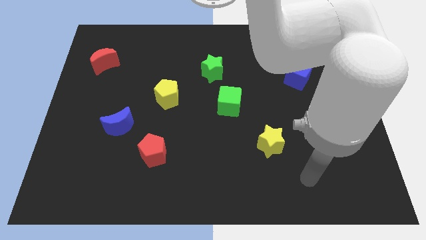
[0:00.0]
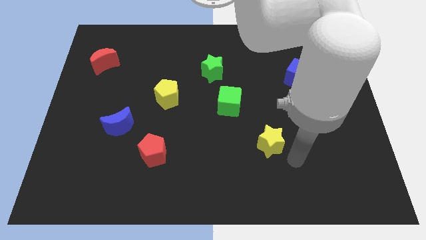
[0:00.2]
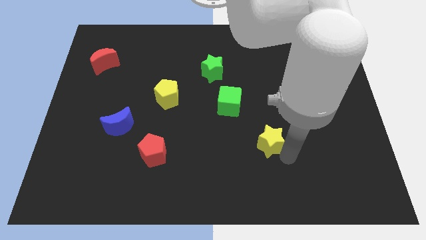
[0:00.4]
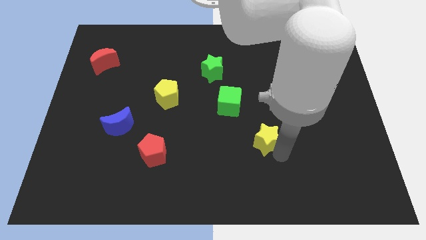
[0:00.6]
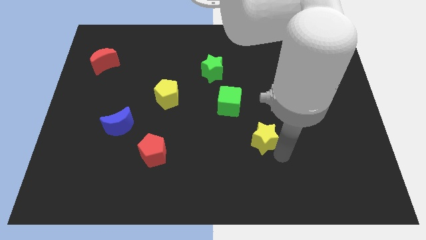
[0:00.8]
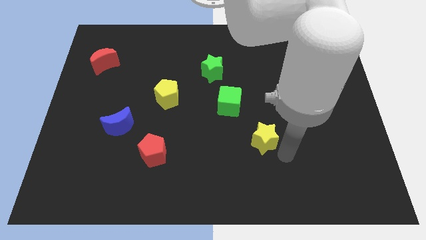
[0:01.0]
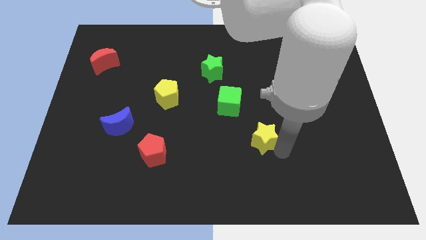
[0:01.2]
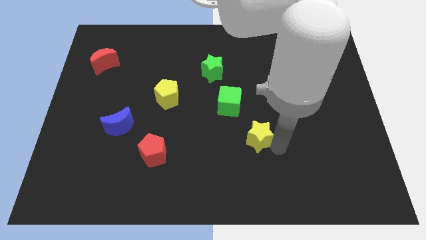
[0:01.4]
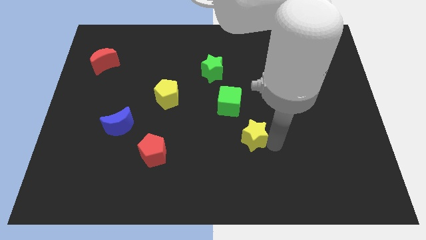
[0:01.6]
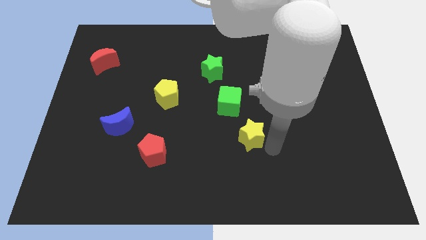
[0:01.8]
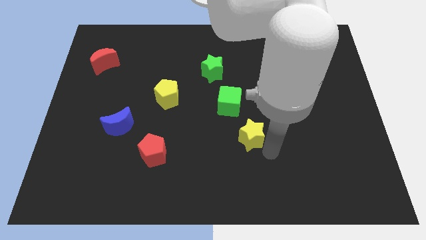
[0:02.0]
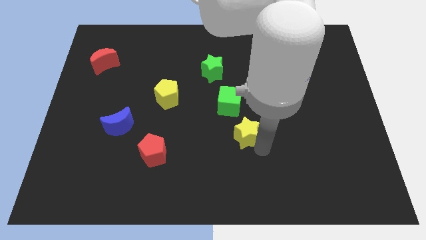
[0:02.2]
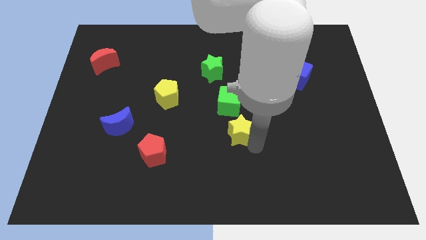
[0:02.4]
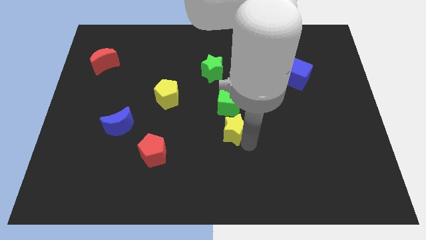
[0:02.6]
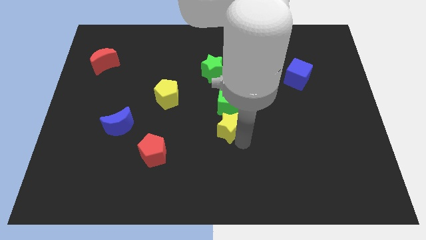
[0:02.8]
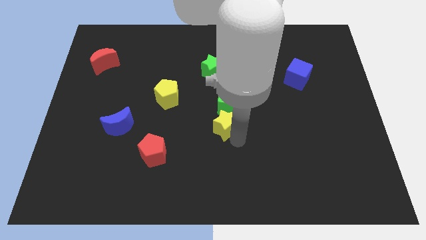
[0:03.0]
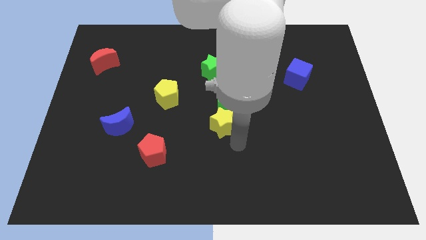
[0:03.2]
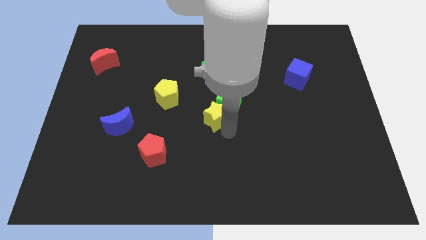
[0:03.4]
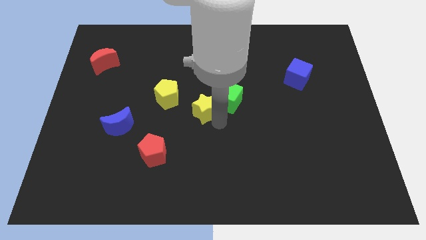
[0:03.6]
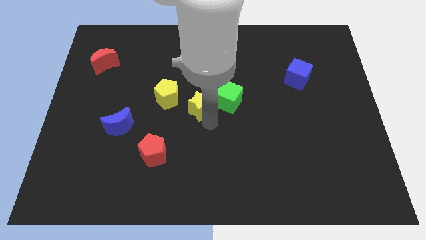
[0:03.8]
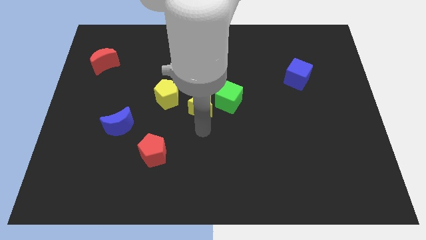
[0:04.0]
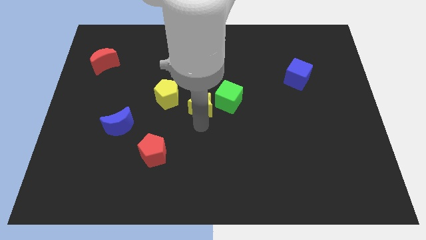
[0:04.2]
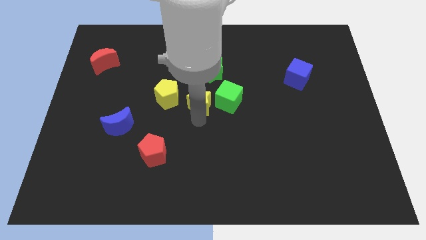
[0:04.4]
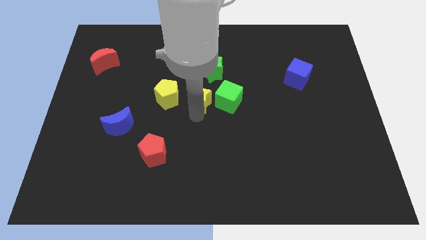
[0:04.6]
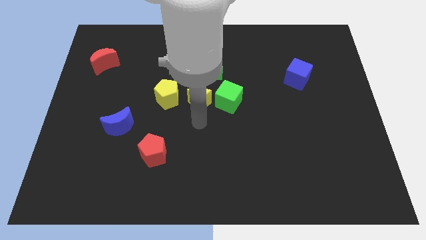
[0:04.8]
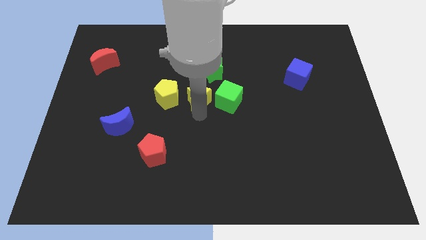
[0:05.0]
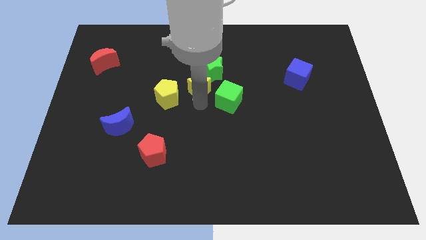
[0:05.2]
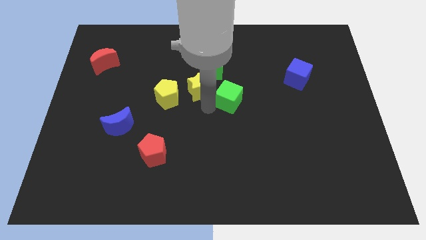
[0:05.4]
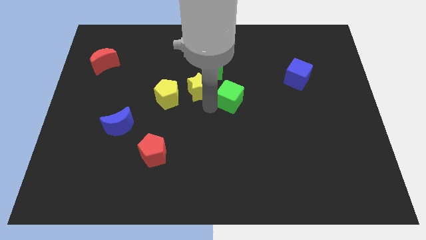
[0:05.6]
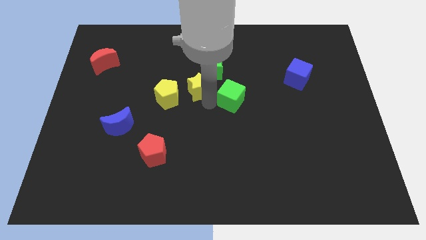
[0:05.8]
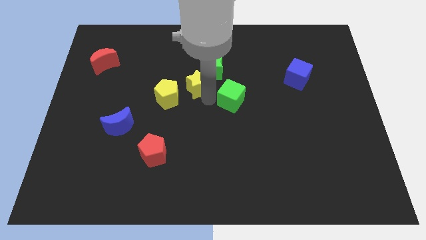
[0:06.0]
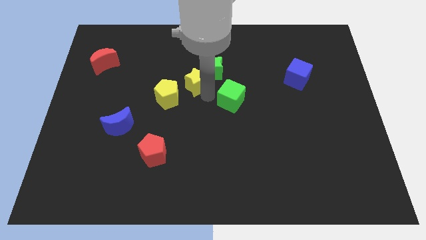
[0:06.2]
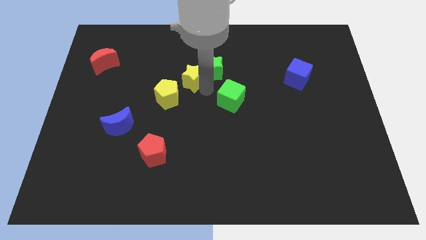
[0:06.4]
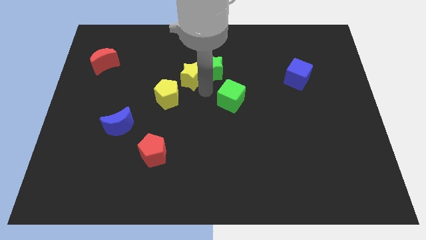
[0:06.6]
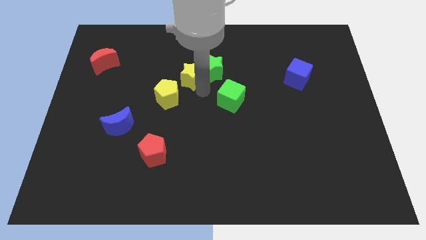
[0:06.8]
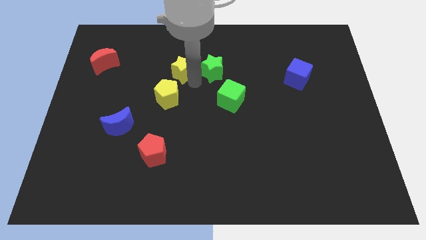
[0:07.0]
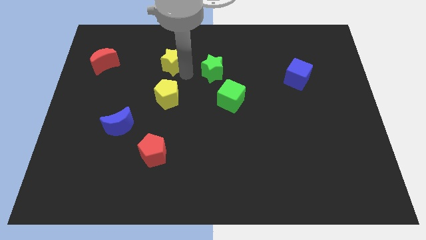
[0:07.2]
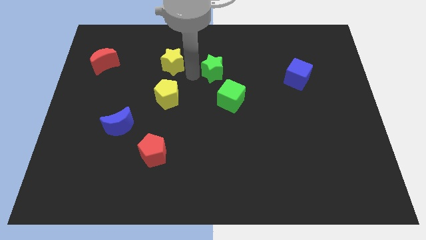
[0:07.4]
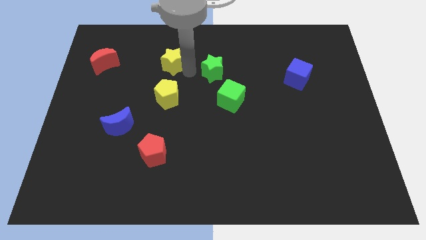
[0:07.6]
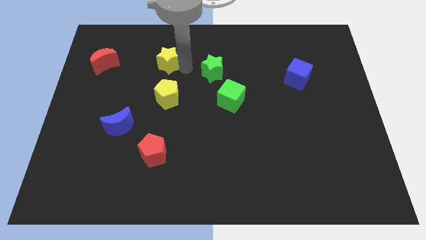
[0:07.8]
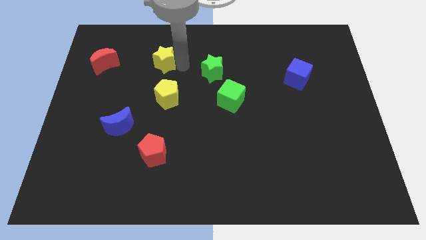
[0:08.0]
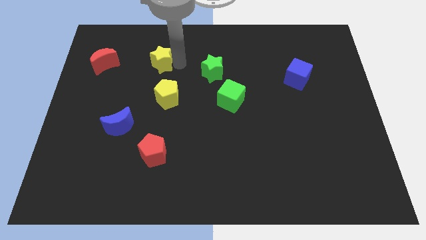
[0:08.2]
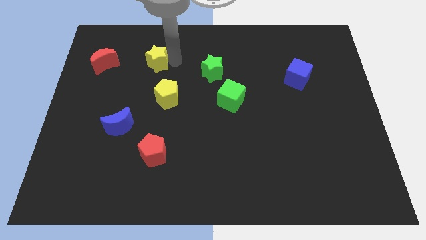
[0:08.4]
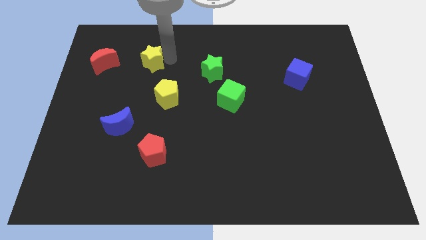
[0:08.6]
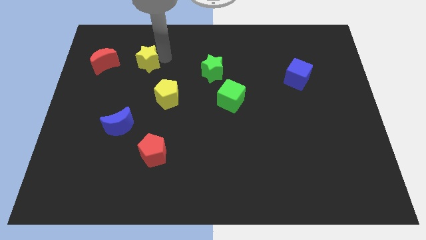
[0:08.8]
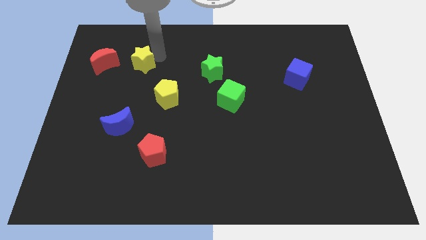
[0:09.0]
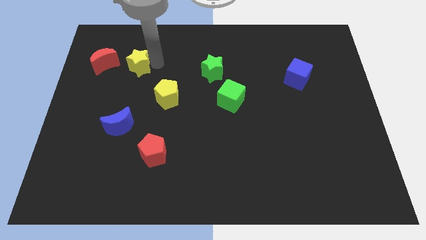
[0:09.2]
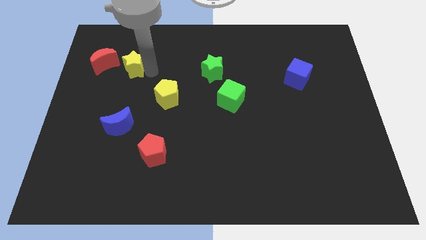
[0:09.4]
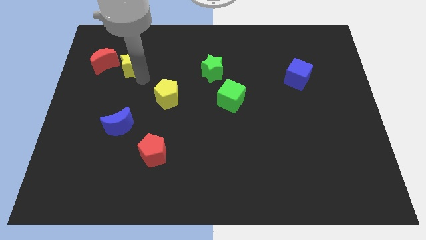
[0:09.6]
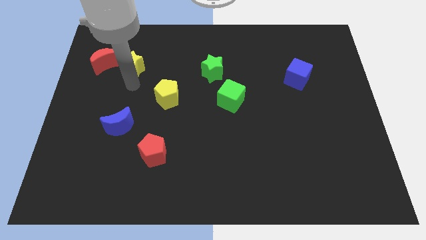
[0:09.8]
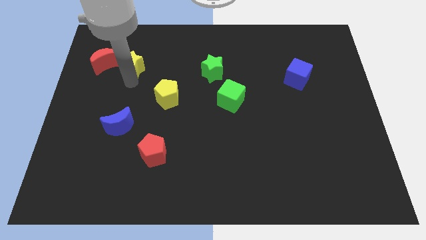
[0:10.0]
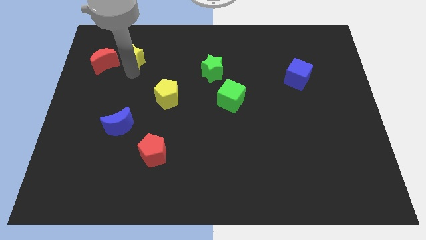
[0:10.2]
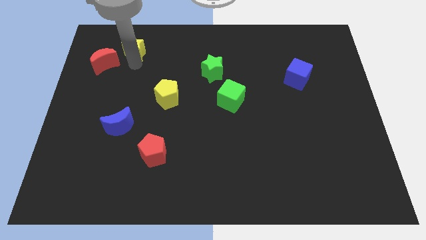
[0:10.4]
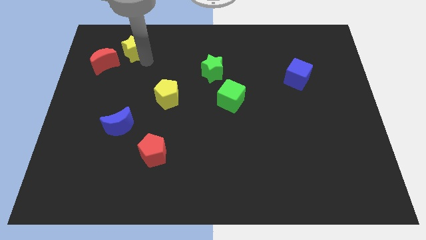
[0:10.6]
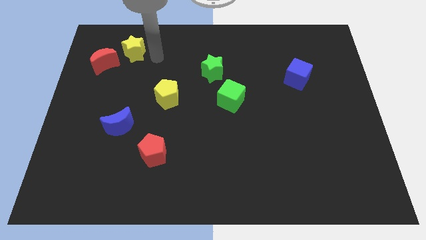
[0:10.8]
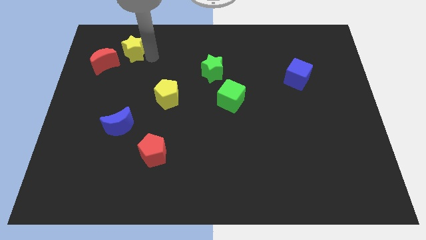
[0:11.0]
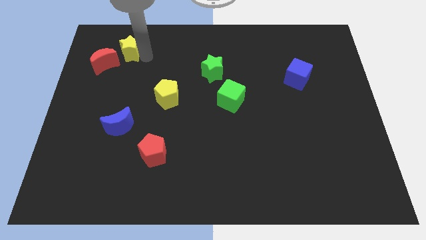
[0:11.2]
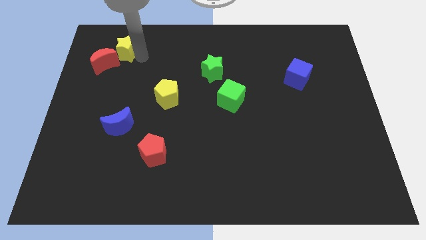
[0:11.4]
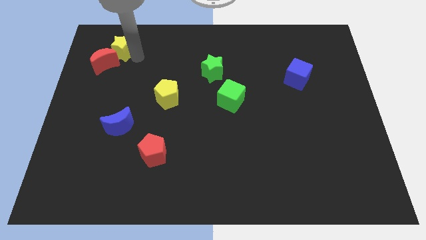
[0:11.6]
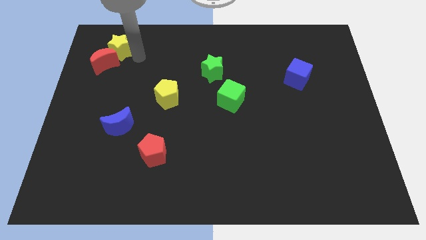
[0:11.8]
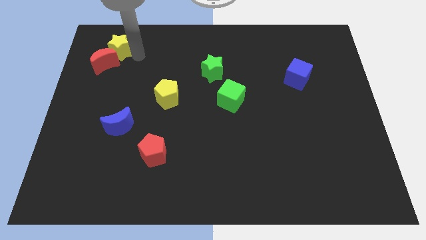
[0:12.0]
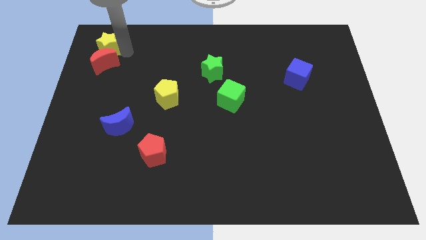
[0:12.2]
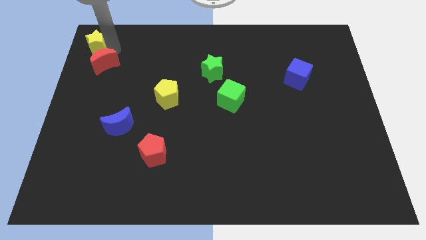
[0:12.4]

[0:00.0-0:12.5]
push the yellow star to the upper left corner
